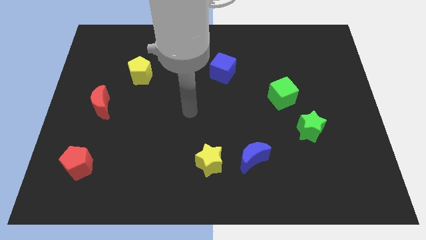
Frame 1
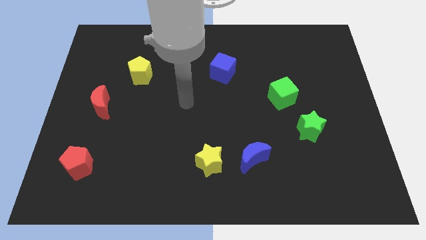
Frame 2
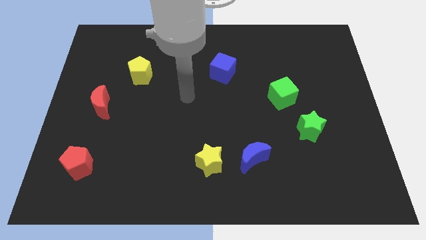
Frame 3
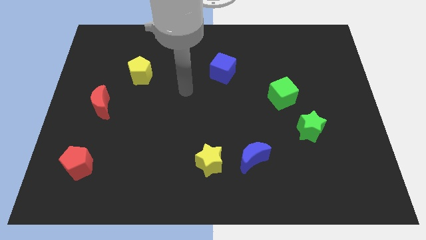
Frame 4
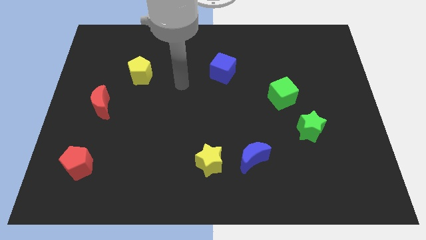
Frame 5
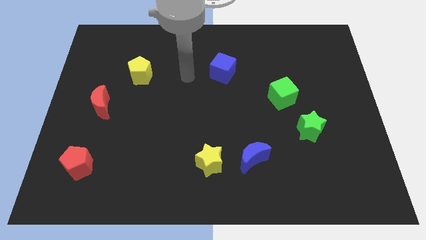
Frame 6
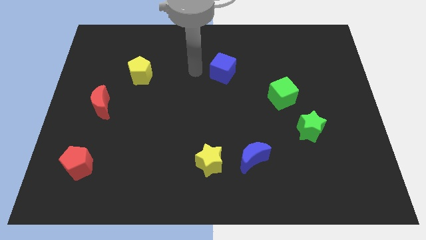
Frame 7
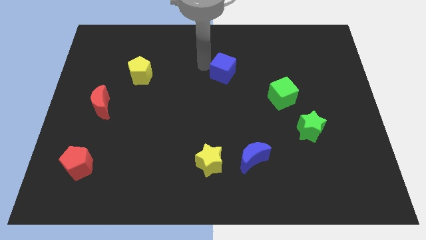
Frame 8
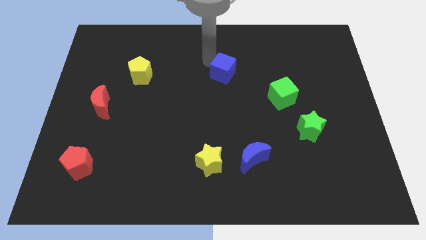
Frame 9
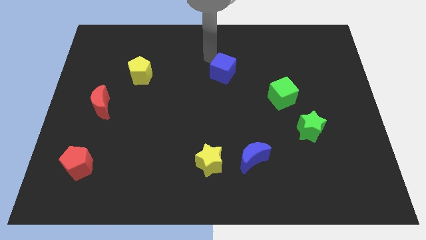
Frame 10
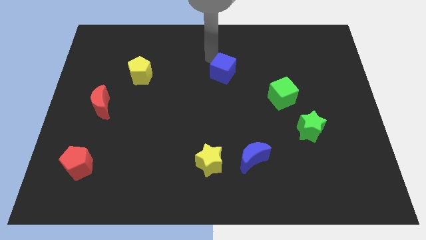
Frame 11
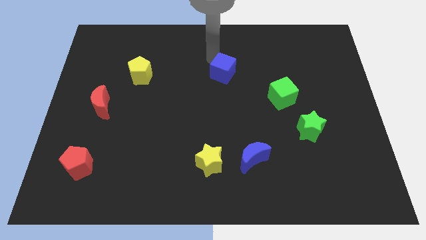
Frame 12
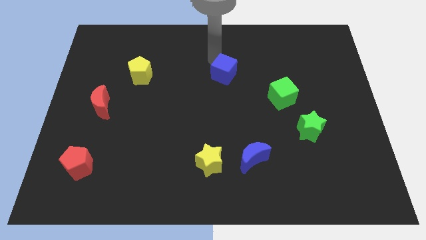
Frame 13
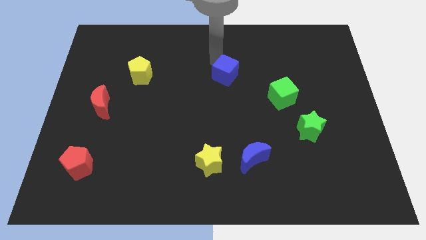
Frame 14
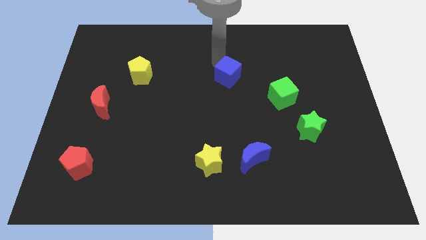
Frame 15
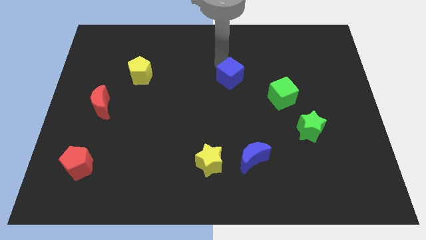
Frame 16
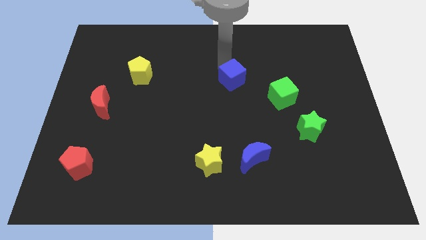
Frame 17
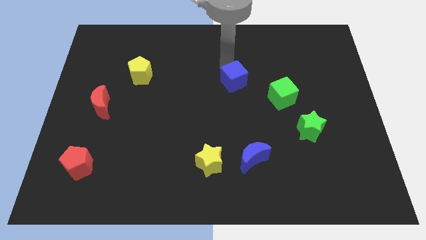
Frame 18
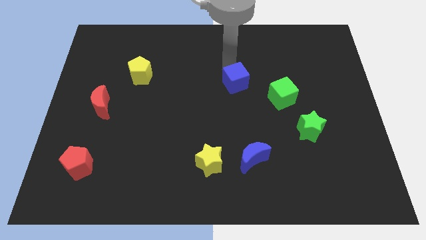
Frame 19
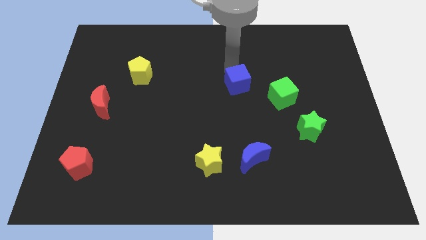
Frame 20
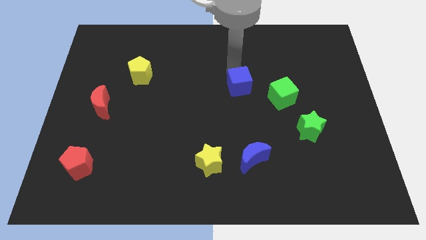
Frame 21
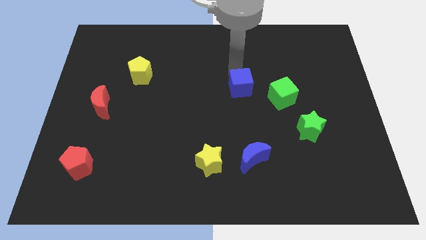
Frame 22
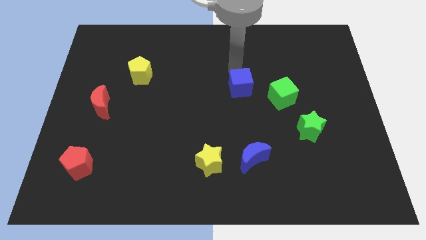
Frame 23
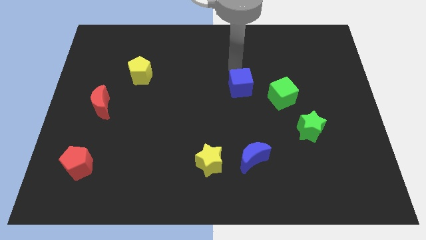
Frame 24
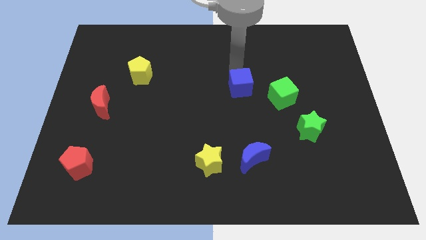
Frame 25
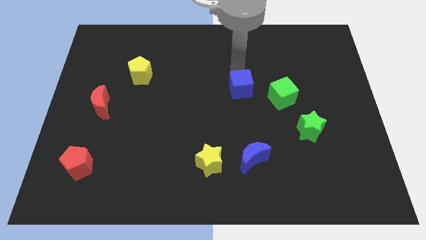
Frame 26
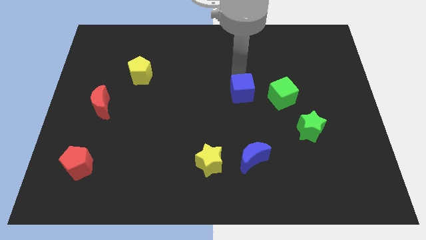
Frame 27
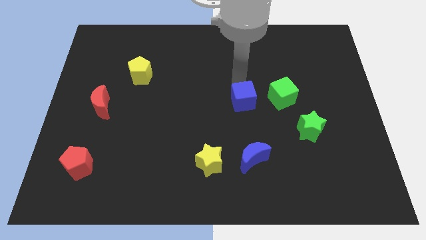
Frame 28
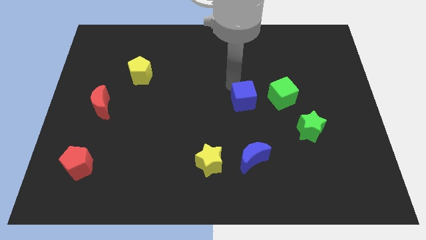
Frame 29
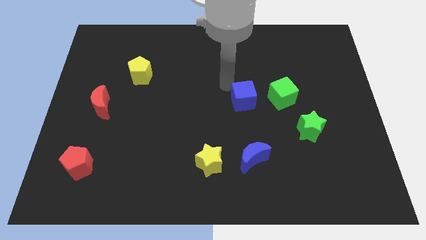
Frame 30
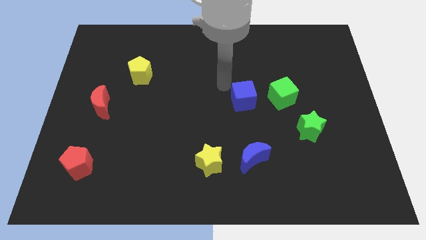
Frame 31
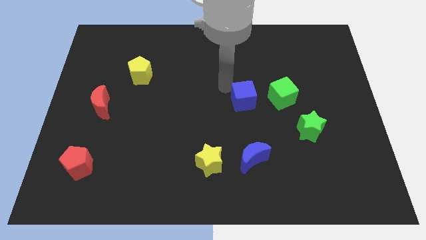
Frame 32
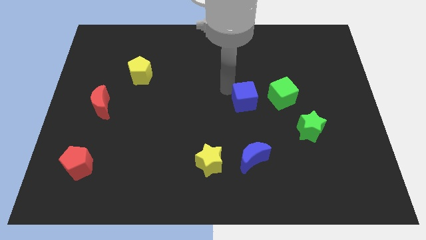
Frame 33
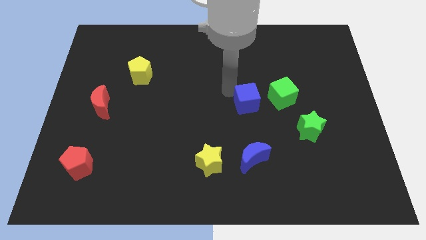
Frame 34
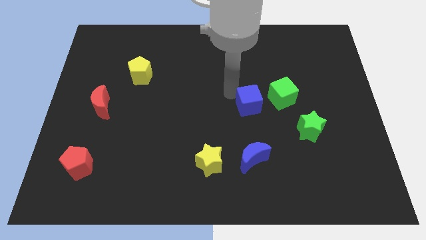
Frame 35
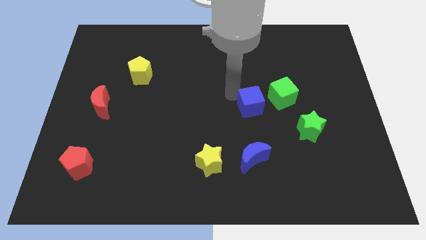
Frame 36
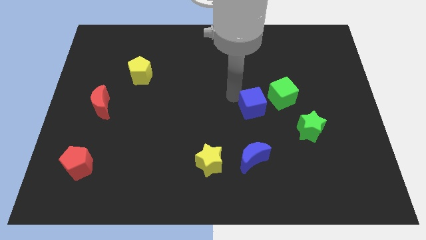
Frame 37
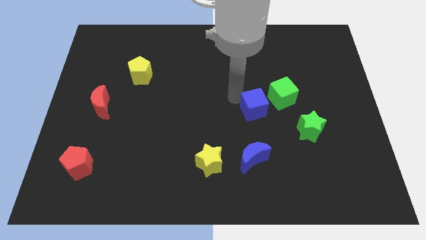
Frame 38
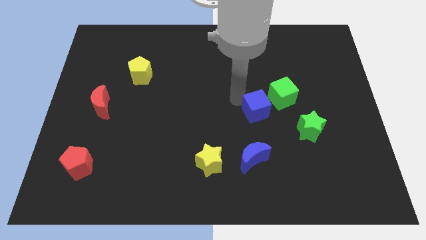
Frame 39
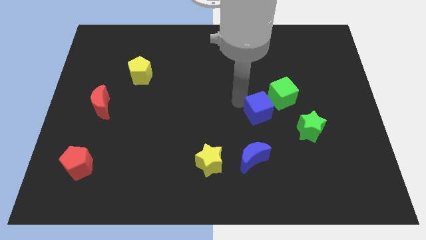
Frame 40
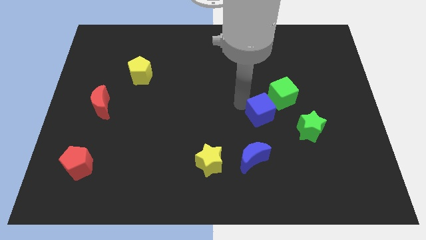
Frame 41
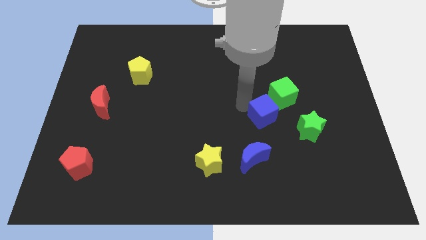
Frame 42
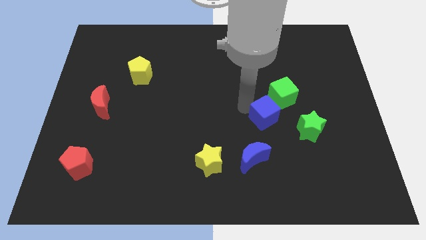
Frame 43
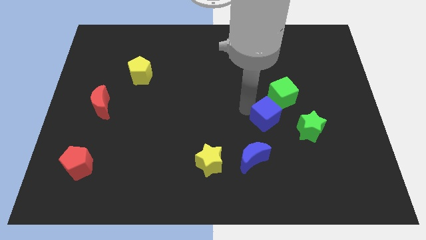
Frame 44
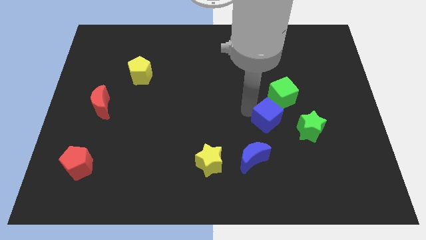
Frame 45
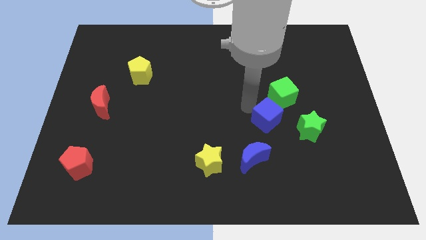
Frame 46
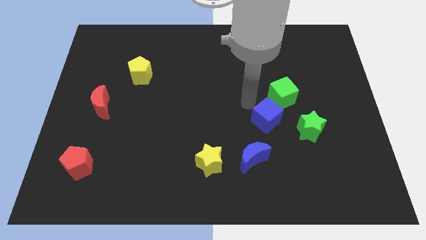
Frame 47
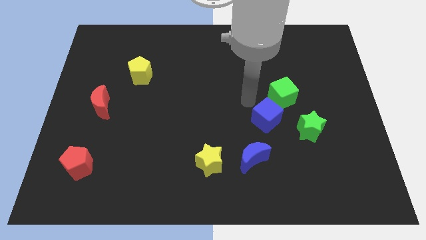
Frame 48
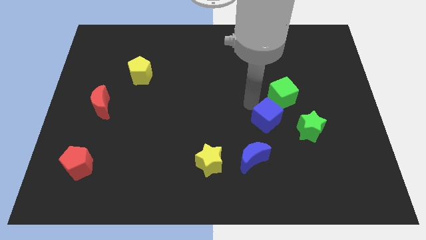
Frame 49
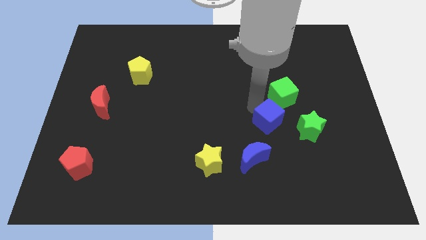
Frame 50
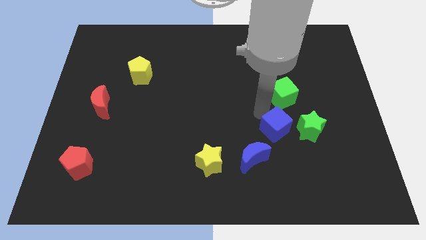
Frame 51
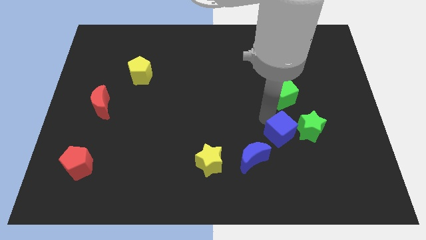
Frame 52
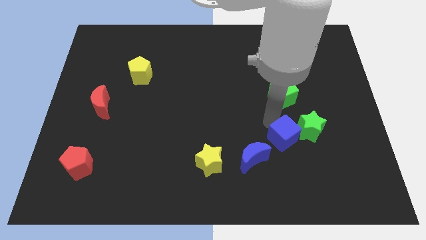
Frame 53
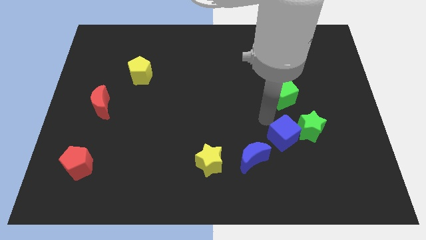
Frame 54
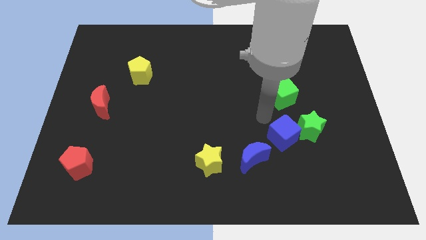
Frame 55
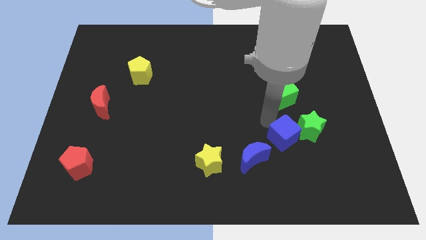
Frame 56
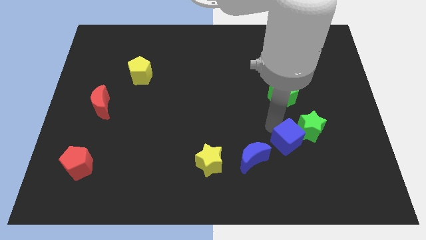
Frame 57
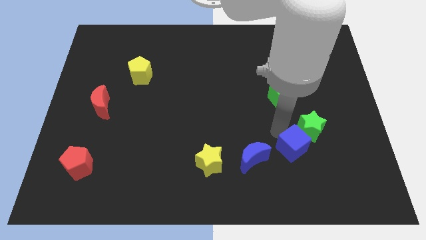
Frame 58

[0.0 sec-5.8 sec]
move the blue cube to the bottom of the green star
